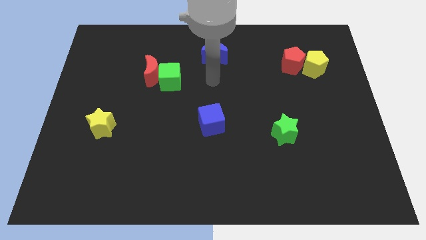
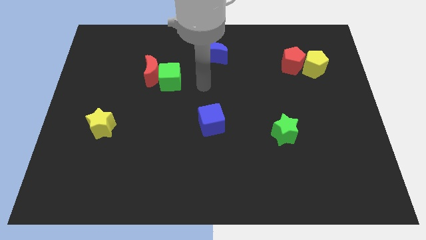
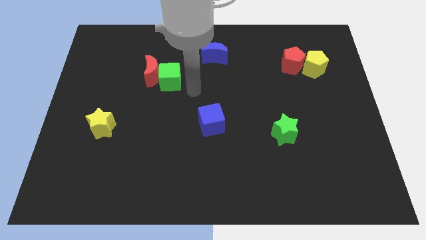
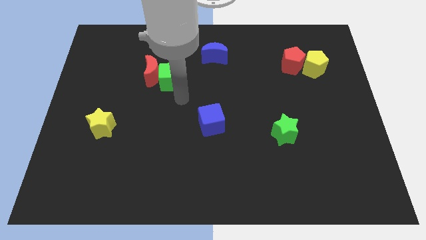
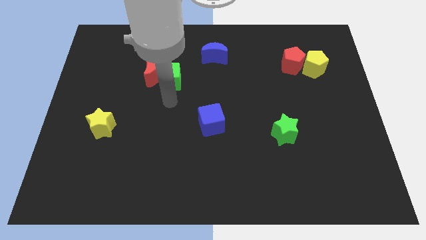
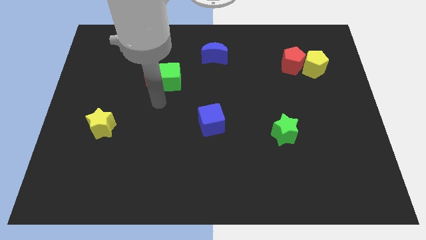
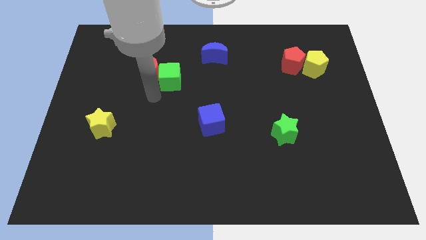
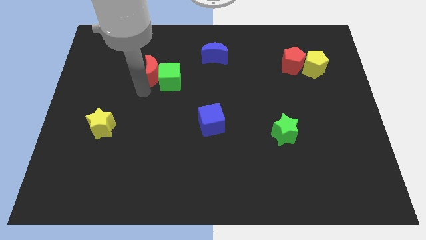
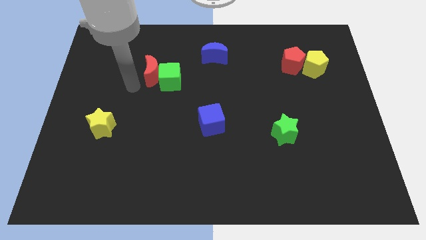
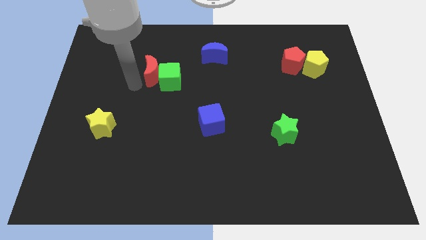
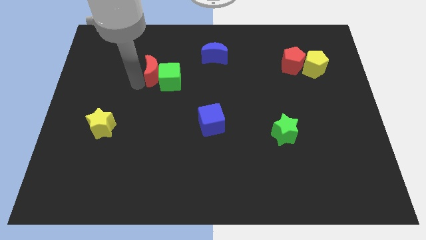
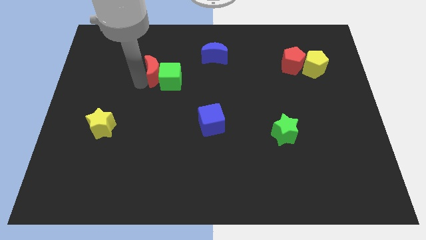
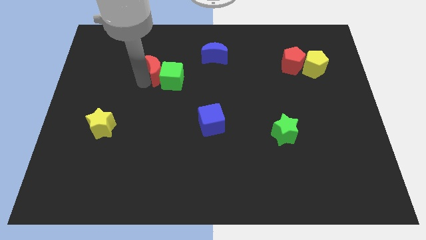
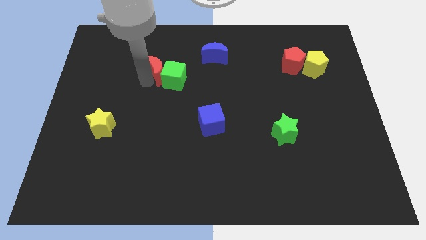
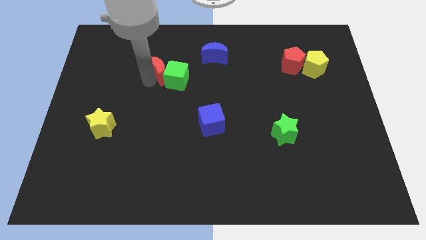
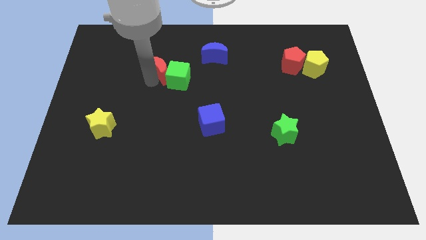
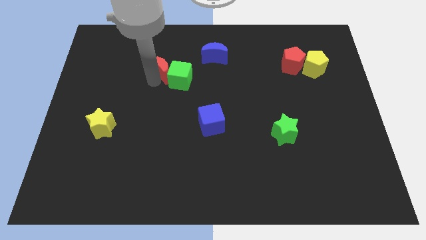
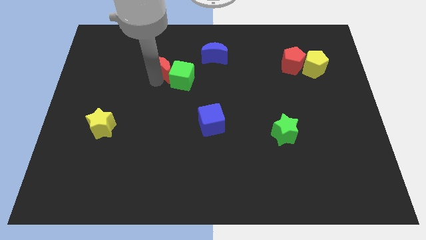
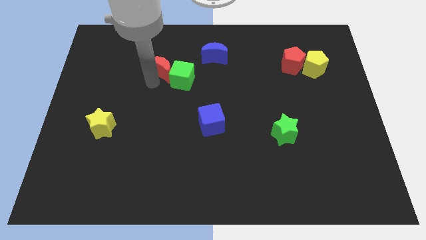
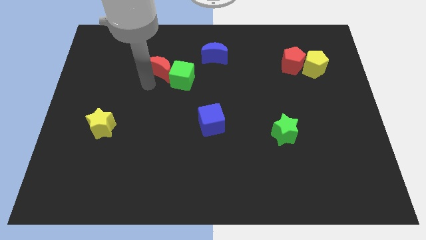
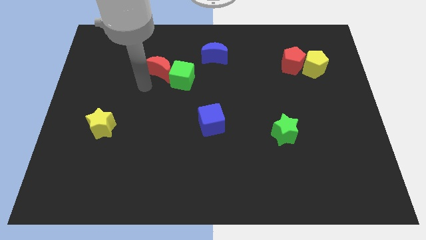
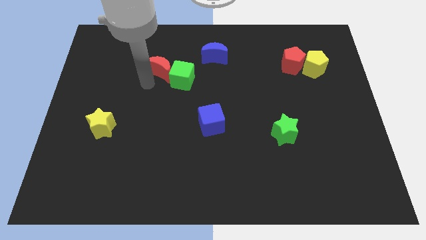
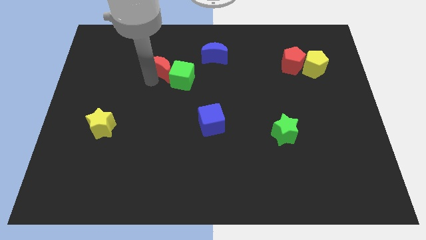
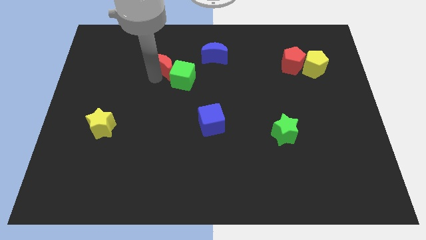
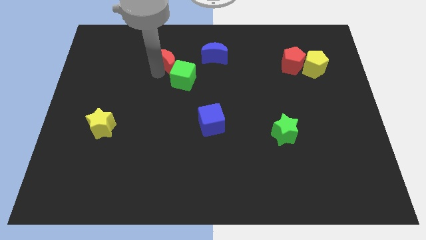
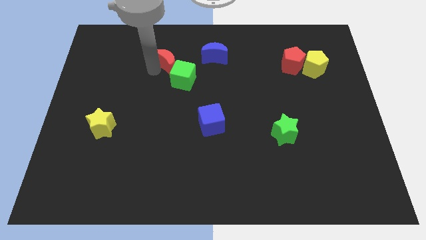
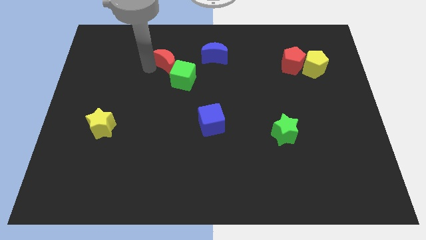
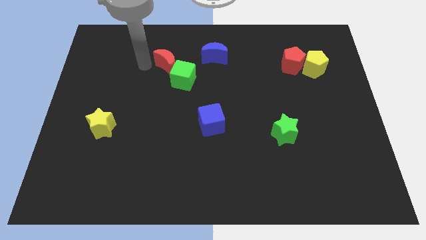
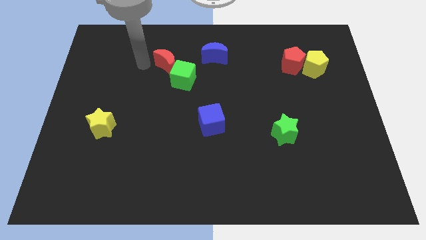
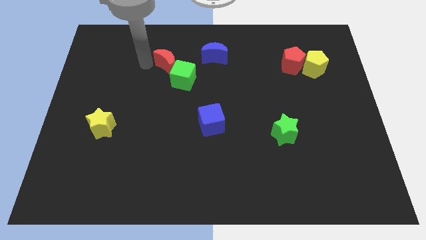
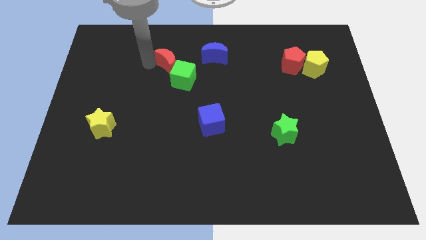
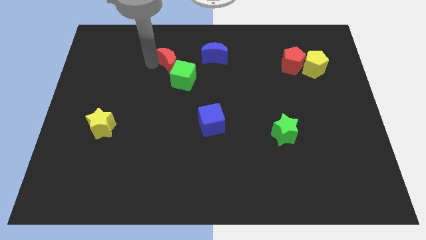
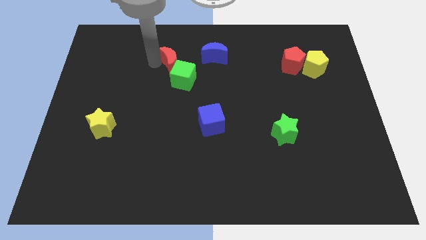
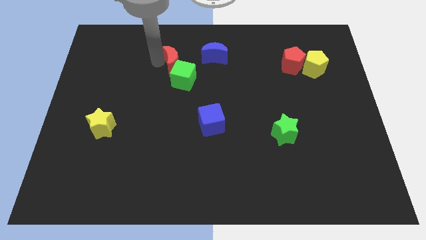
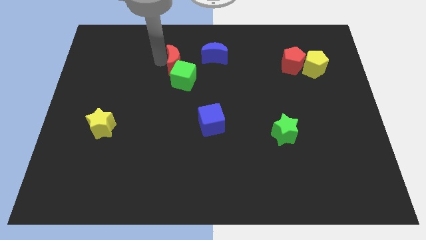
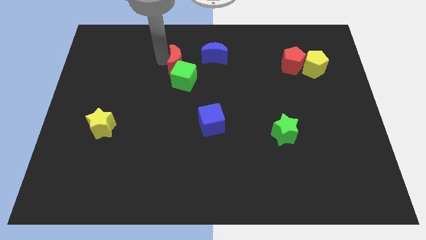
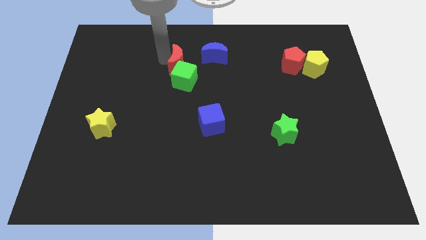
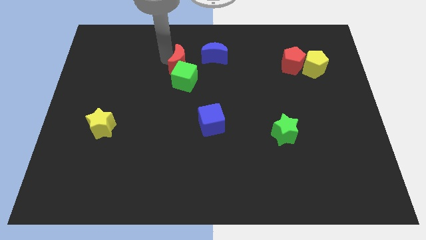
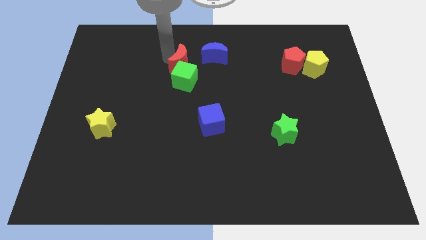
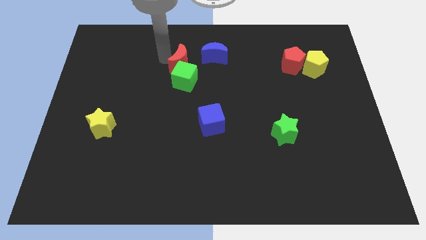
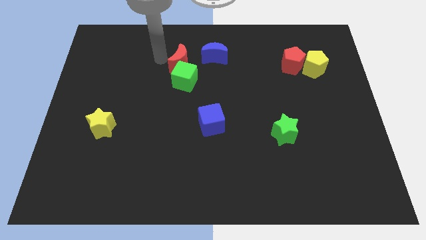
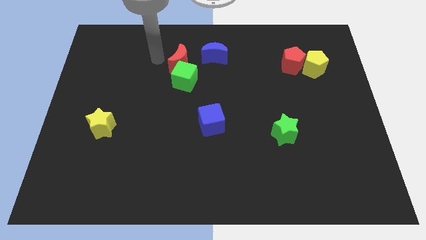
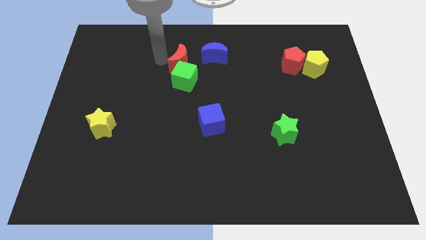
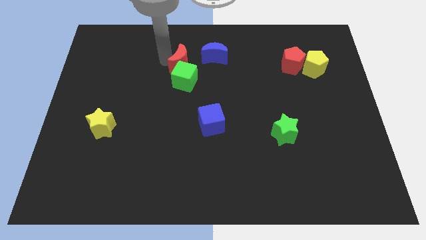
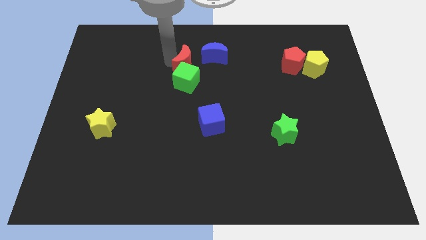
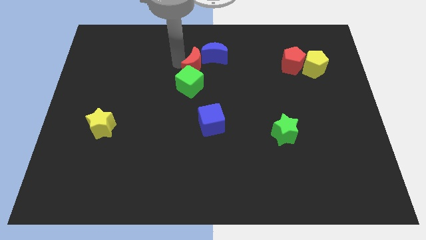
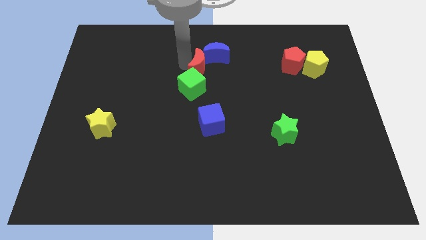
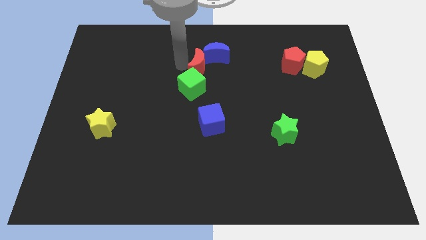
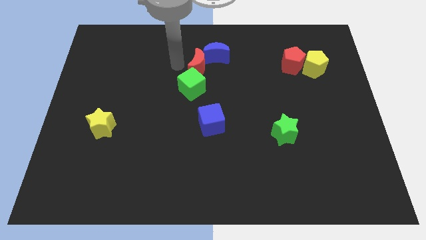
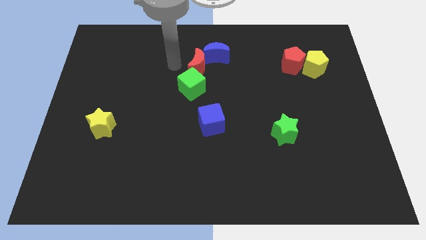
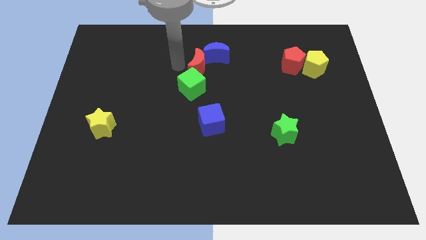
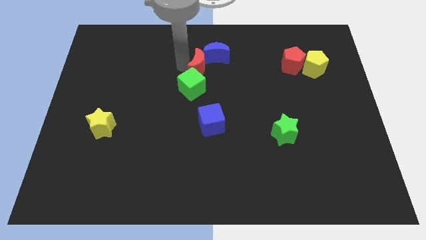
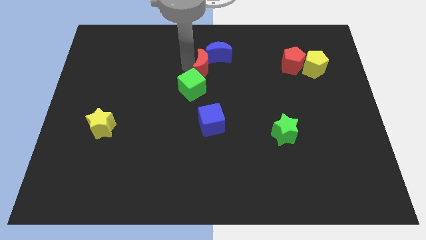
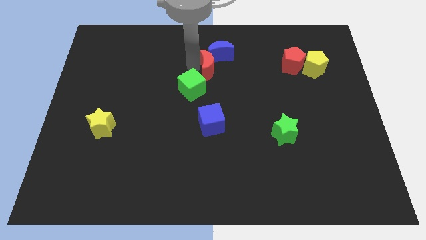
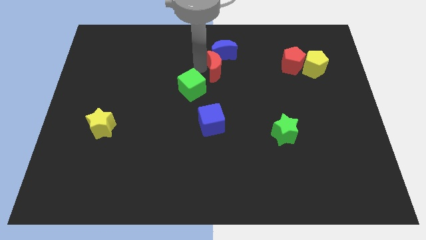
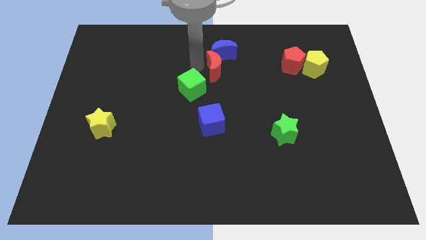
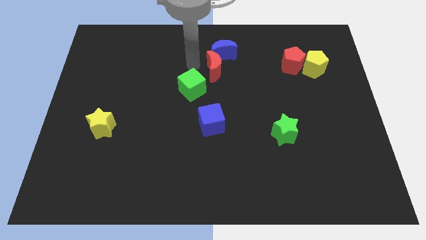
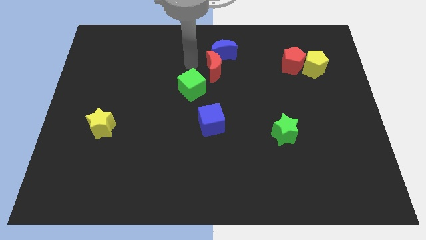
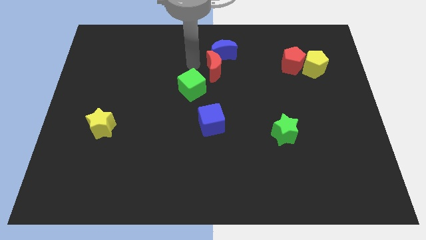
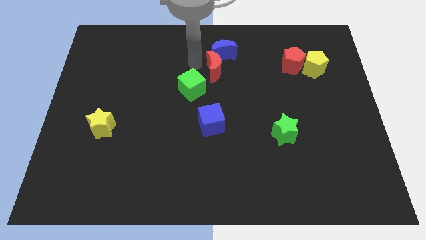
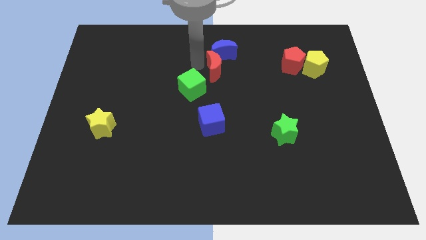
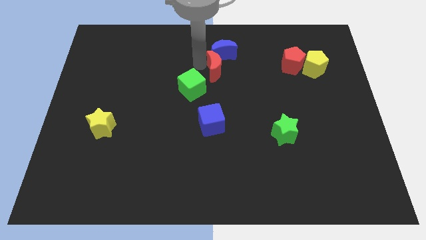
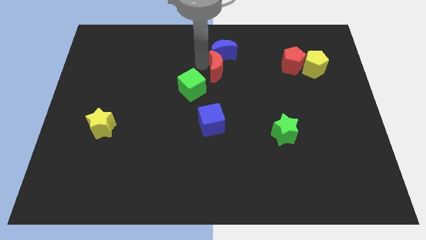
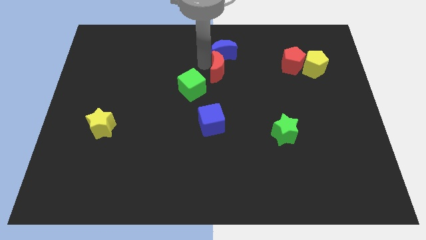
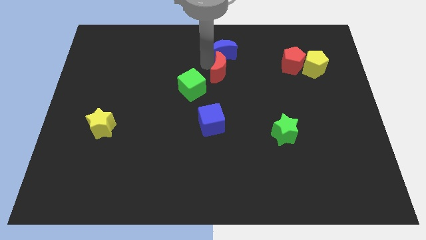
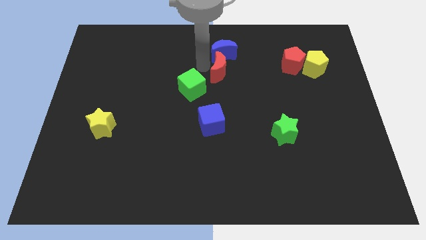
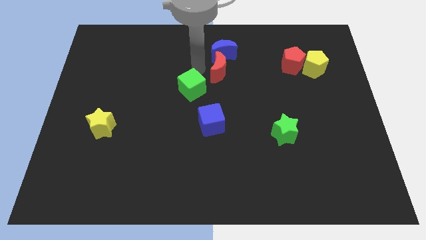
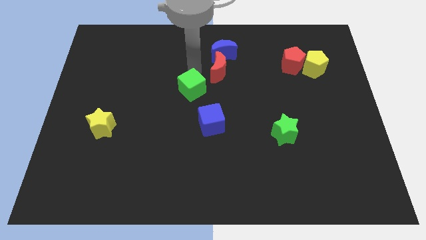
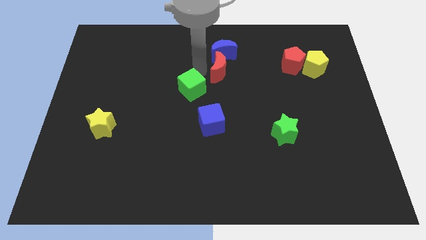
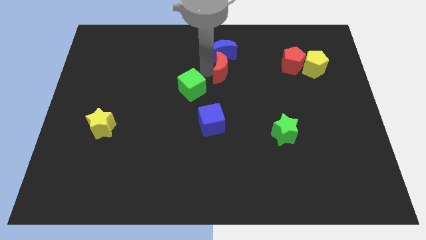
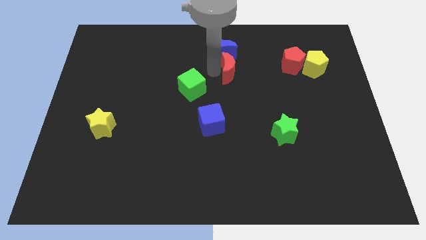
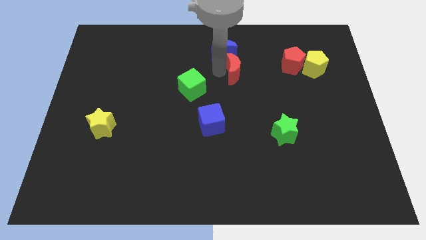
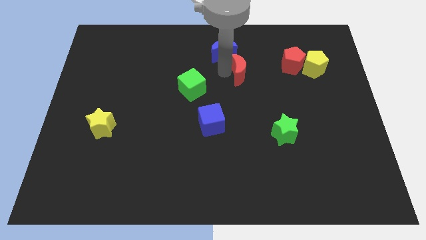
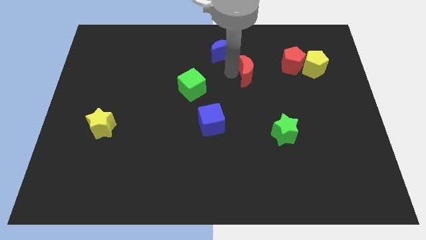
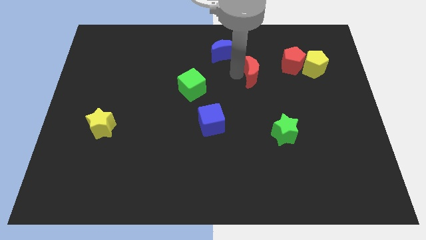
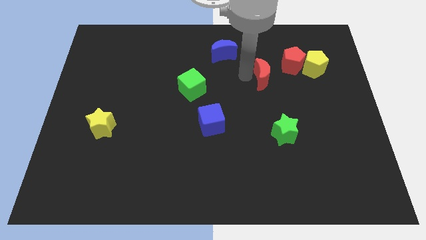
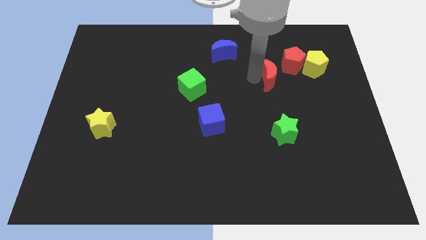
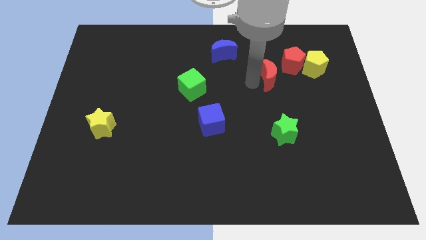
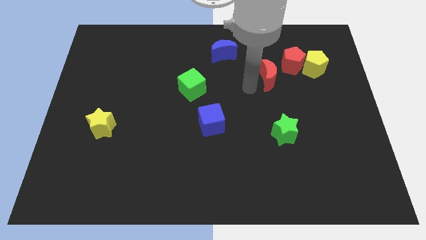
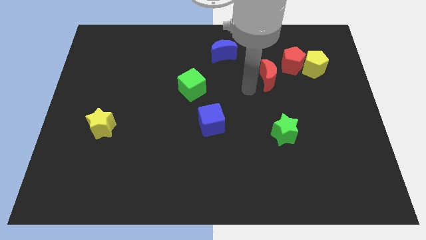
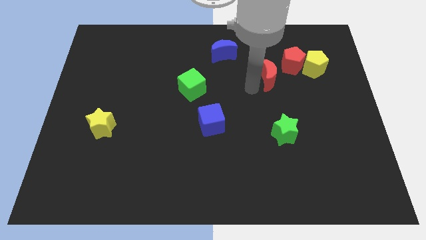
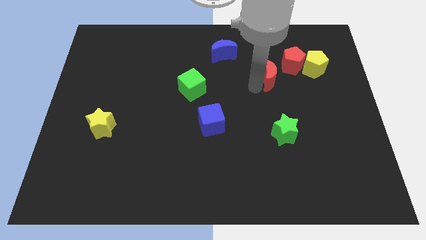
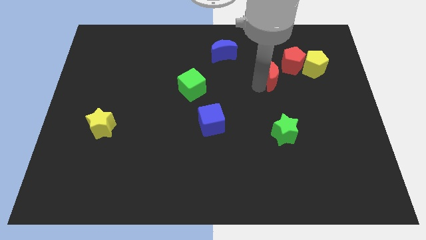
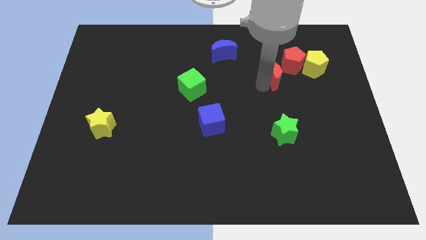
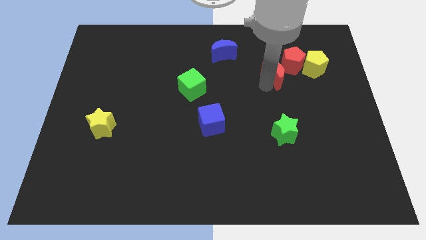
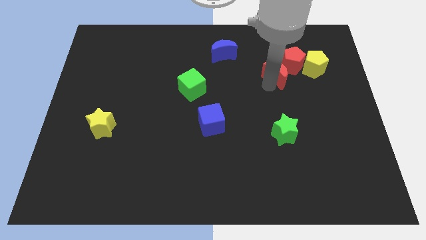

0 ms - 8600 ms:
slide the red moon towards the red pentagon
